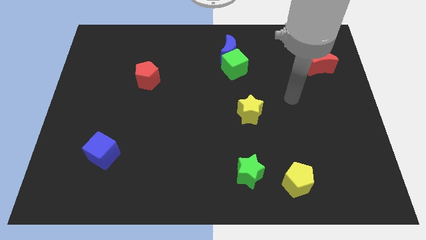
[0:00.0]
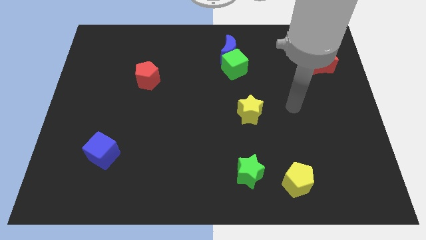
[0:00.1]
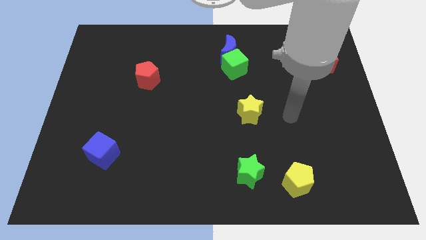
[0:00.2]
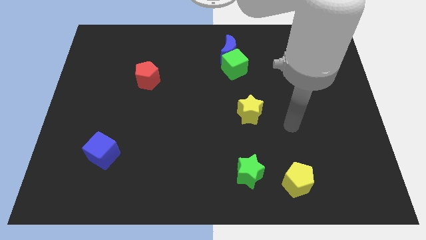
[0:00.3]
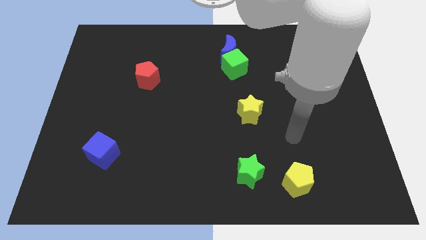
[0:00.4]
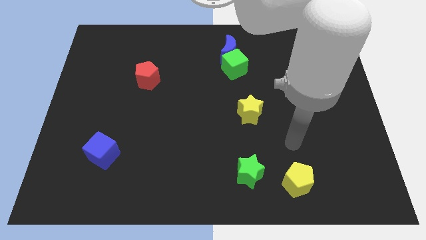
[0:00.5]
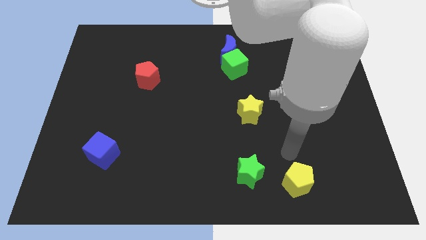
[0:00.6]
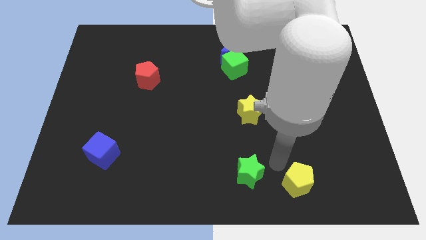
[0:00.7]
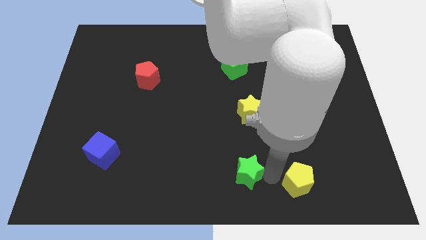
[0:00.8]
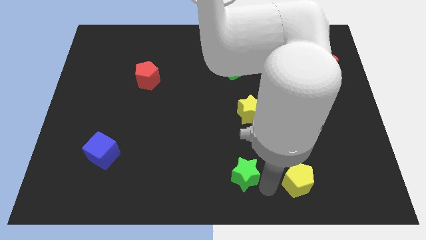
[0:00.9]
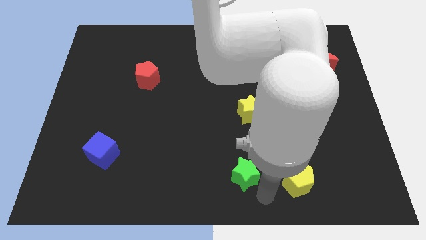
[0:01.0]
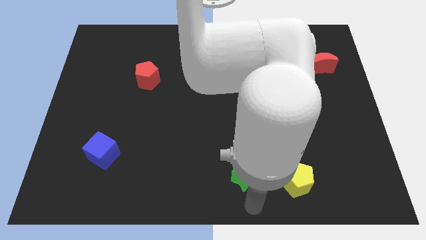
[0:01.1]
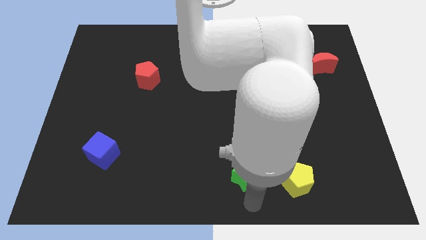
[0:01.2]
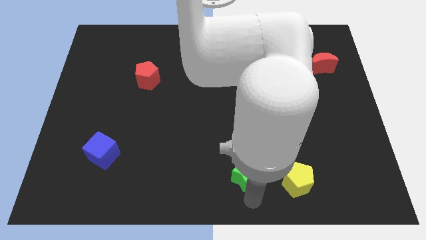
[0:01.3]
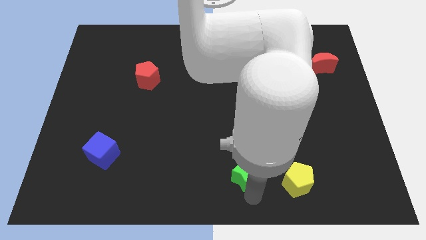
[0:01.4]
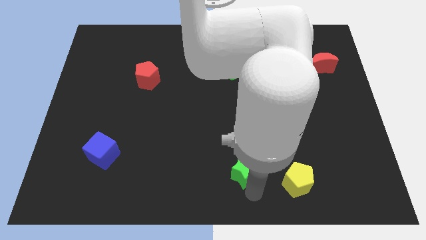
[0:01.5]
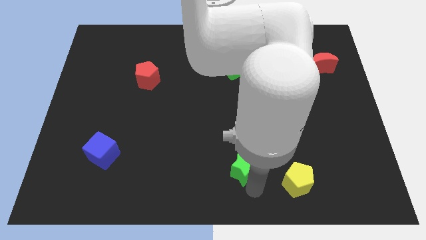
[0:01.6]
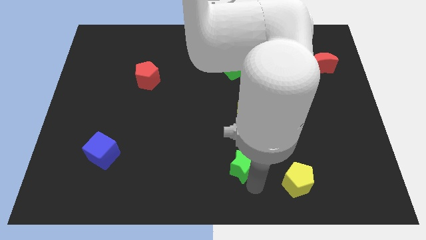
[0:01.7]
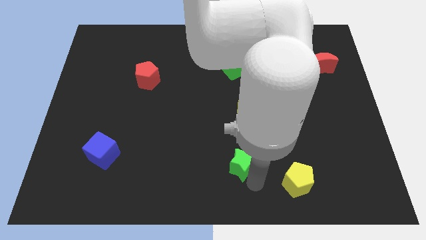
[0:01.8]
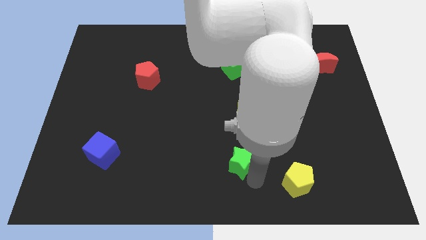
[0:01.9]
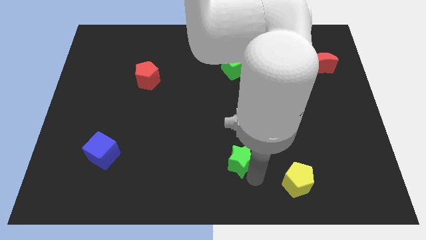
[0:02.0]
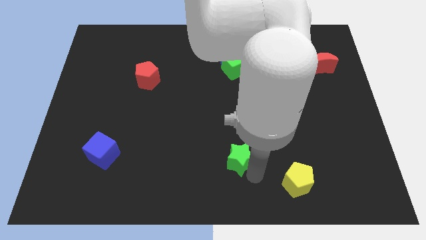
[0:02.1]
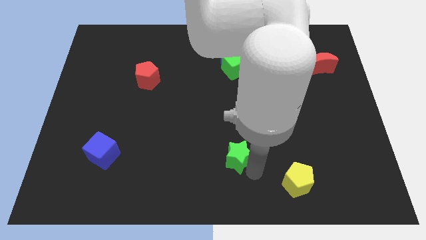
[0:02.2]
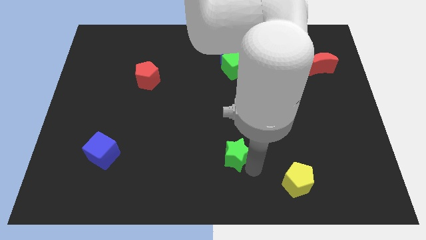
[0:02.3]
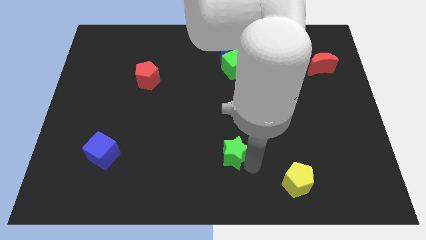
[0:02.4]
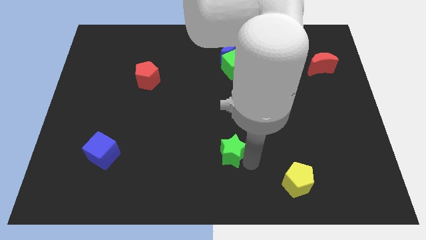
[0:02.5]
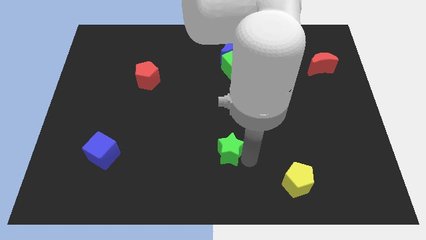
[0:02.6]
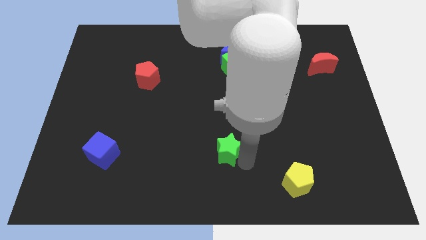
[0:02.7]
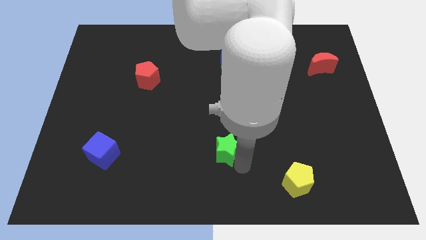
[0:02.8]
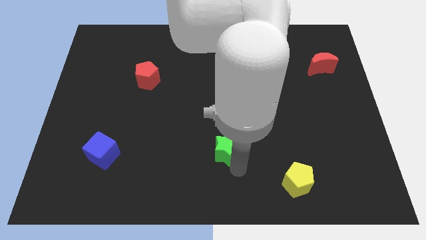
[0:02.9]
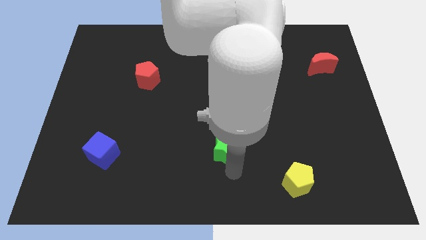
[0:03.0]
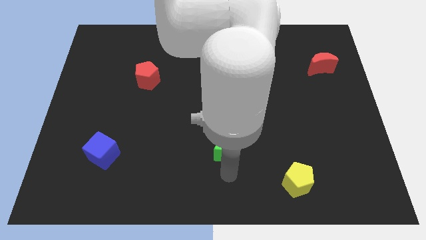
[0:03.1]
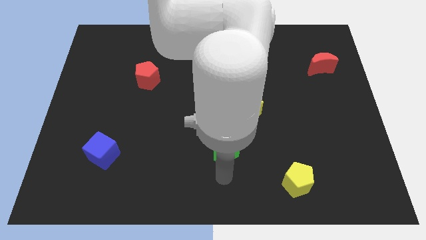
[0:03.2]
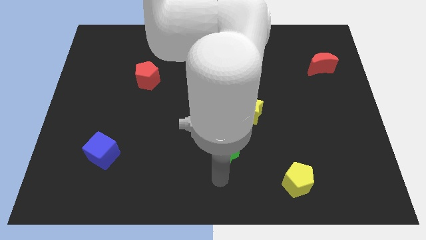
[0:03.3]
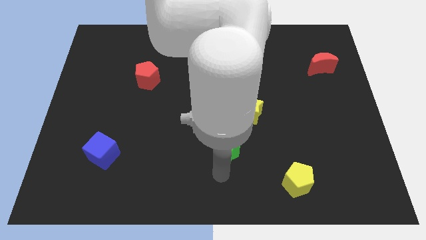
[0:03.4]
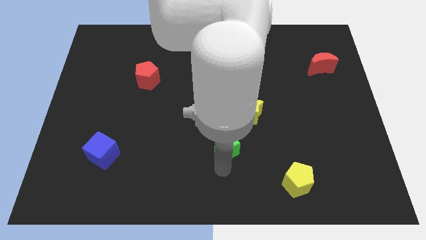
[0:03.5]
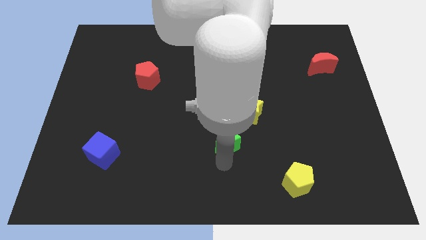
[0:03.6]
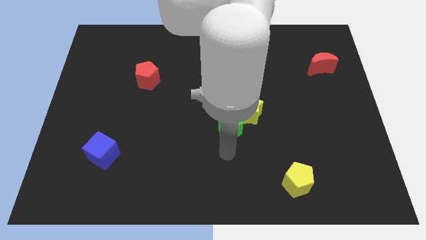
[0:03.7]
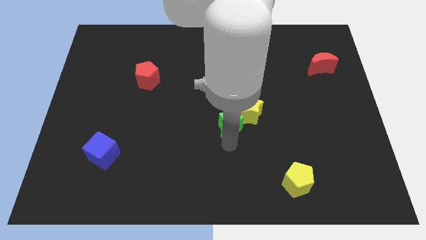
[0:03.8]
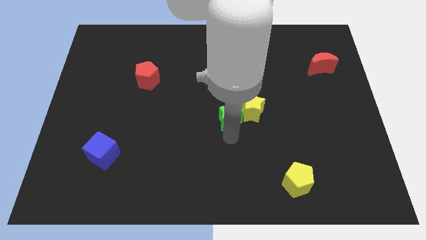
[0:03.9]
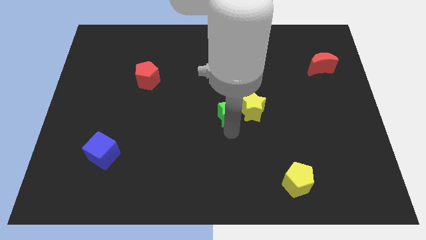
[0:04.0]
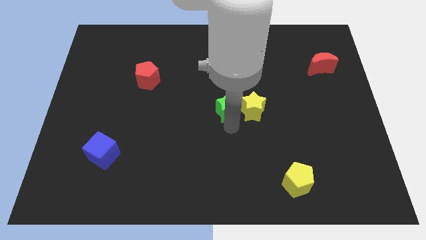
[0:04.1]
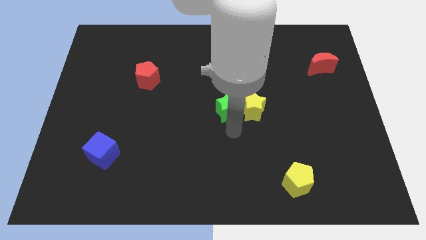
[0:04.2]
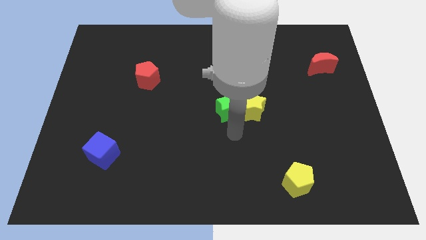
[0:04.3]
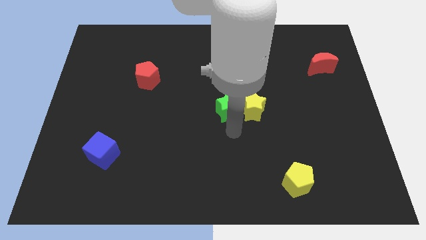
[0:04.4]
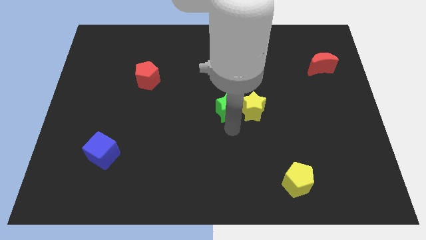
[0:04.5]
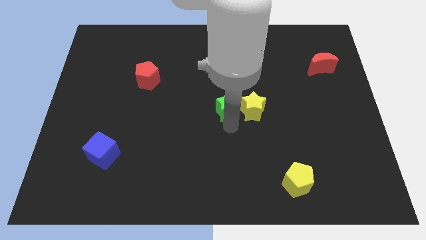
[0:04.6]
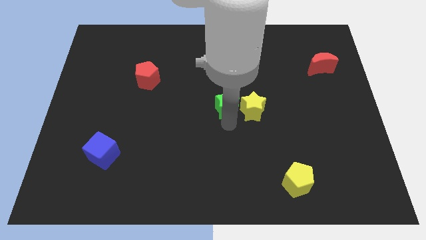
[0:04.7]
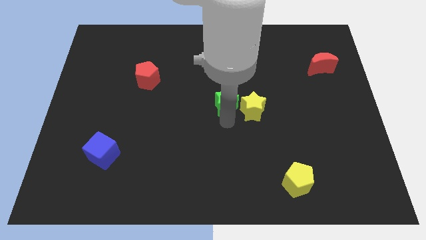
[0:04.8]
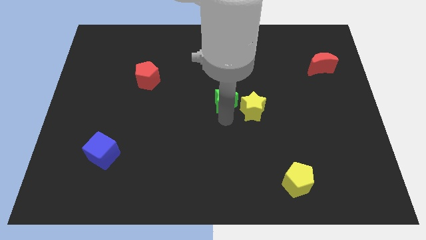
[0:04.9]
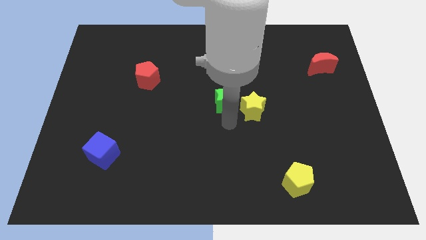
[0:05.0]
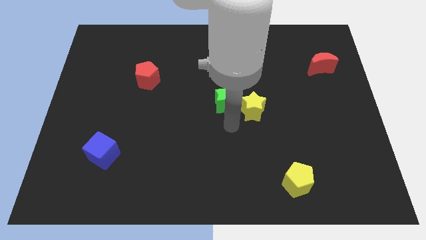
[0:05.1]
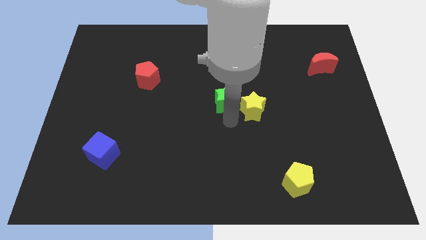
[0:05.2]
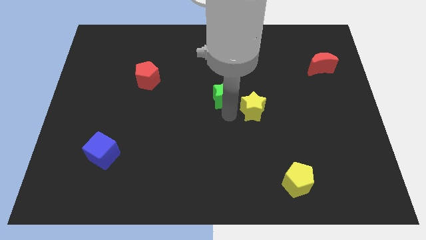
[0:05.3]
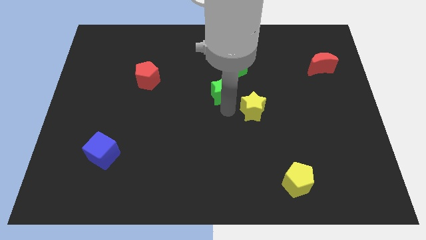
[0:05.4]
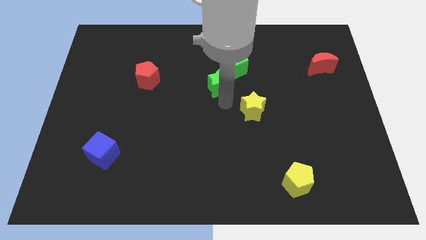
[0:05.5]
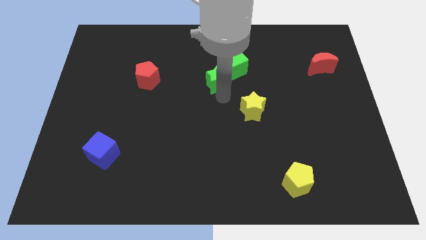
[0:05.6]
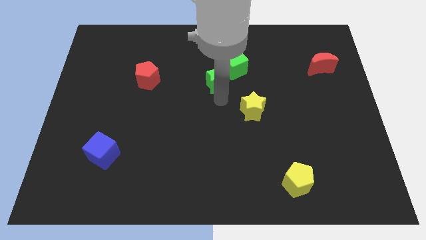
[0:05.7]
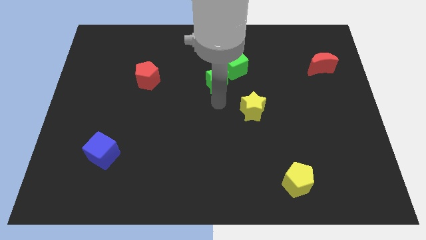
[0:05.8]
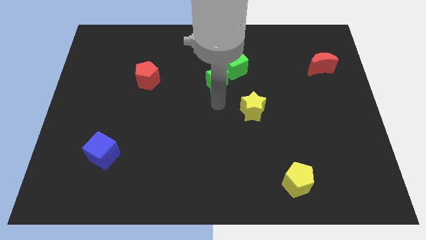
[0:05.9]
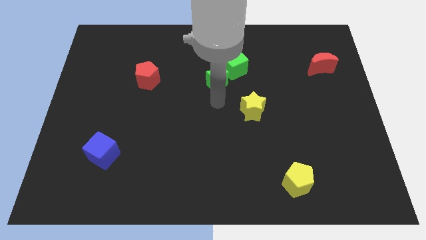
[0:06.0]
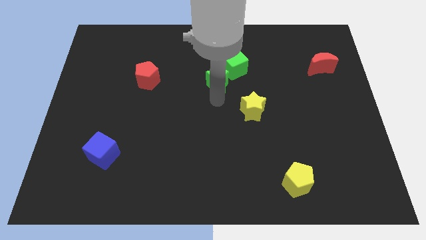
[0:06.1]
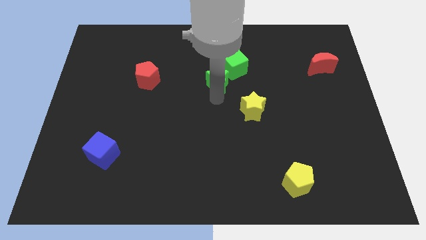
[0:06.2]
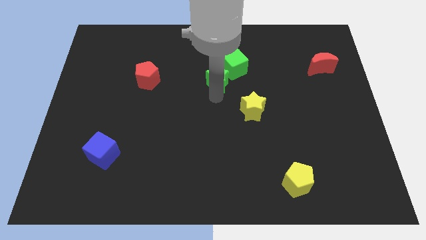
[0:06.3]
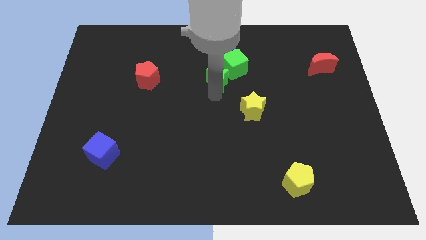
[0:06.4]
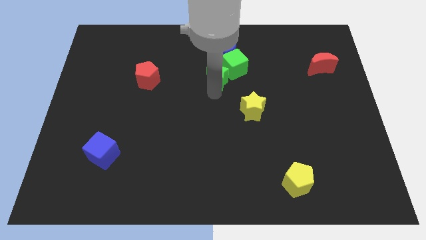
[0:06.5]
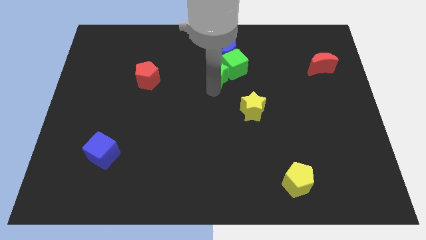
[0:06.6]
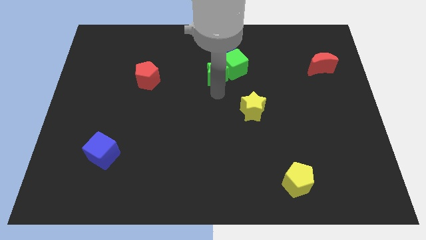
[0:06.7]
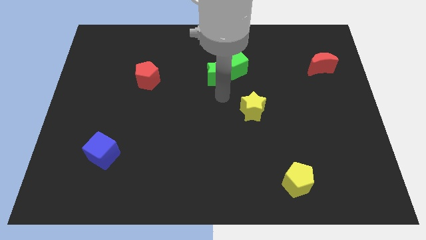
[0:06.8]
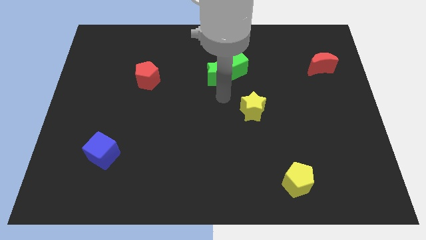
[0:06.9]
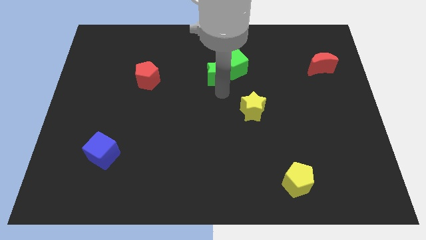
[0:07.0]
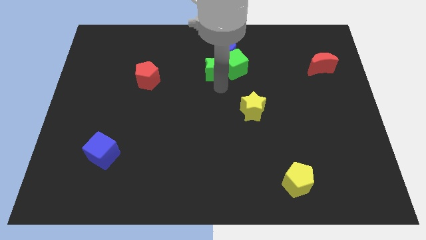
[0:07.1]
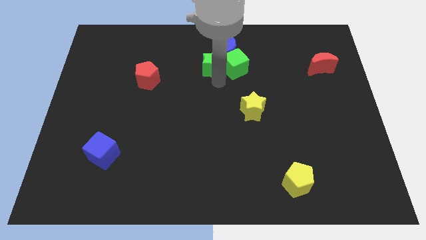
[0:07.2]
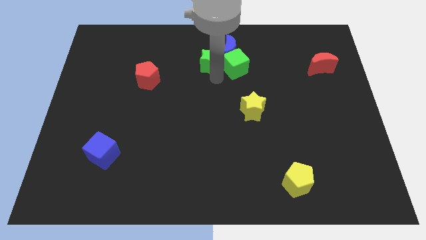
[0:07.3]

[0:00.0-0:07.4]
push the green star towards the blue moon
